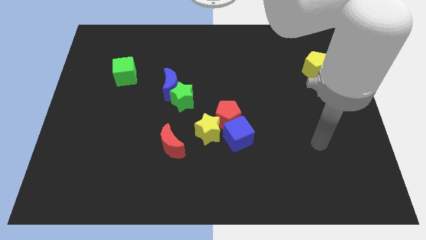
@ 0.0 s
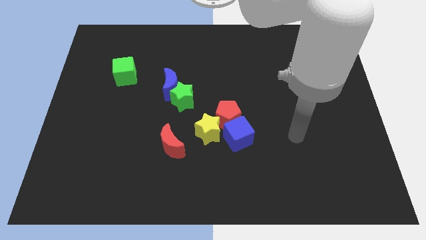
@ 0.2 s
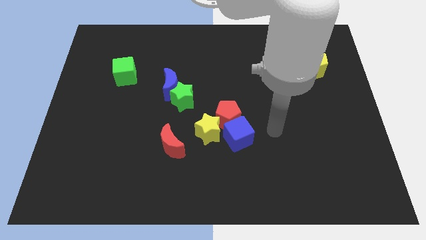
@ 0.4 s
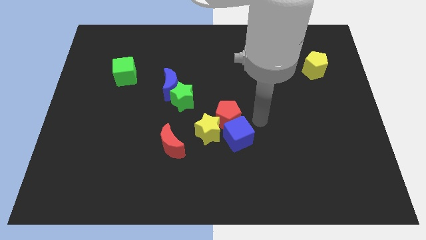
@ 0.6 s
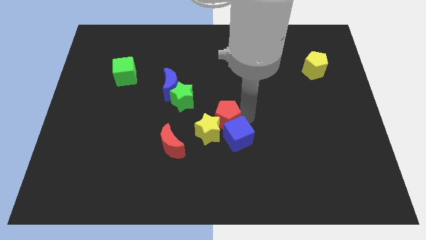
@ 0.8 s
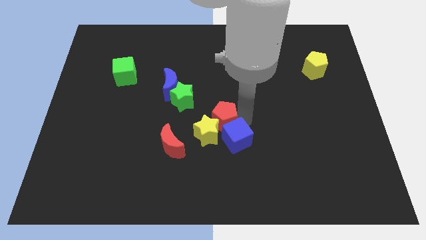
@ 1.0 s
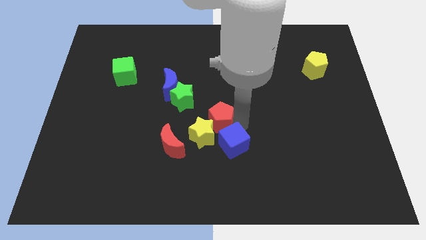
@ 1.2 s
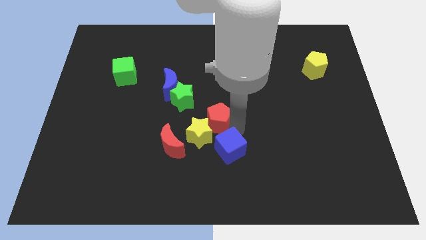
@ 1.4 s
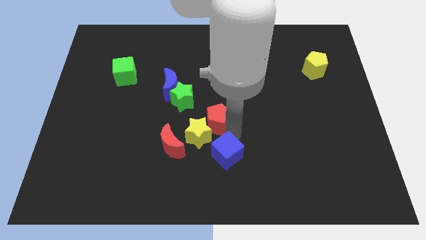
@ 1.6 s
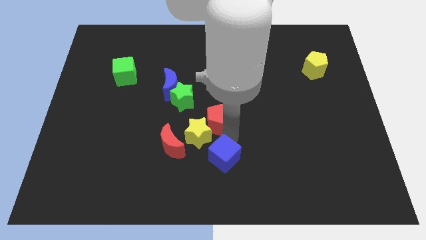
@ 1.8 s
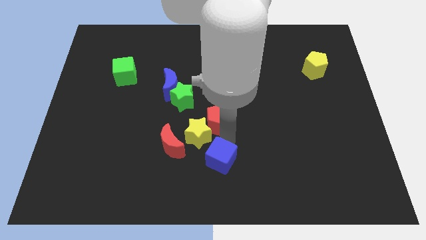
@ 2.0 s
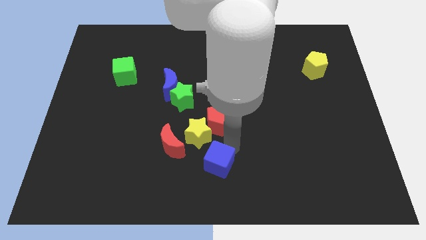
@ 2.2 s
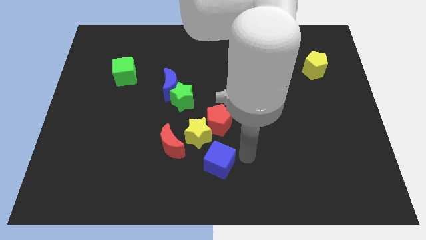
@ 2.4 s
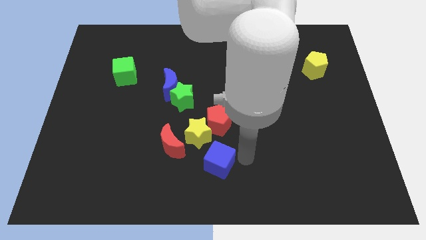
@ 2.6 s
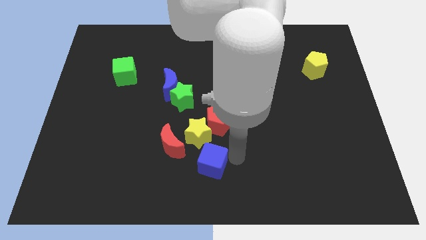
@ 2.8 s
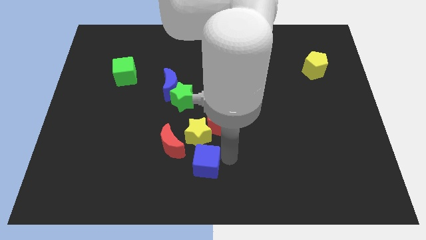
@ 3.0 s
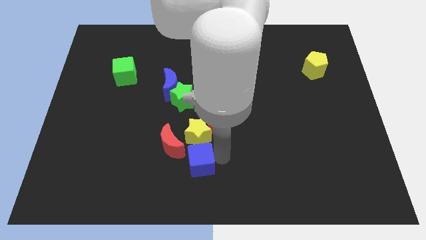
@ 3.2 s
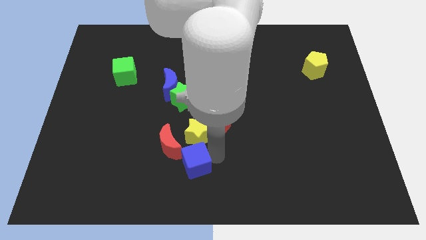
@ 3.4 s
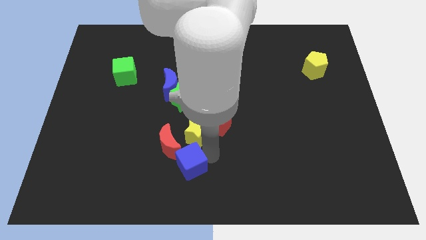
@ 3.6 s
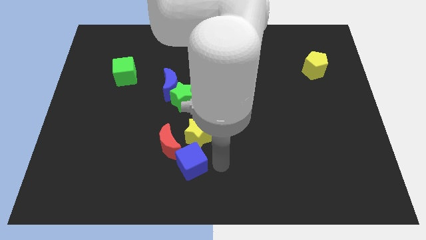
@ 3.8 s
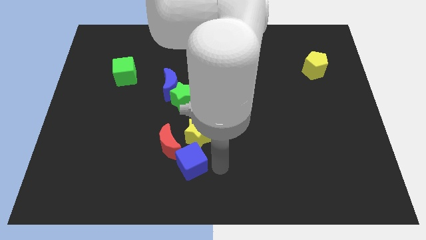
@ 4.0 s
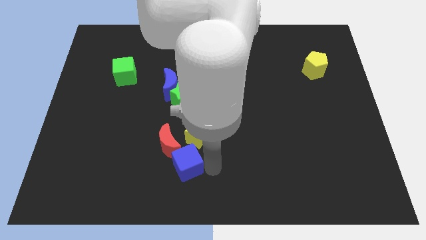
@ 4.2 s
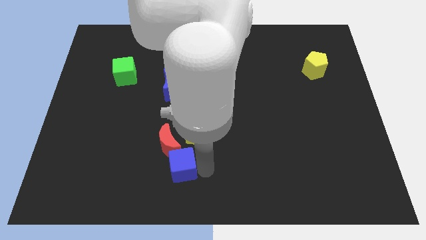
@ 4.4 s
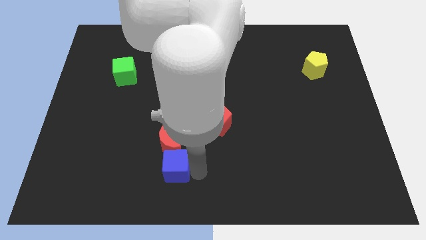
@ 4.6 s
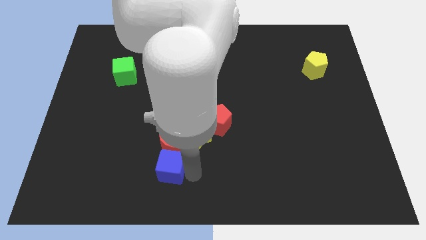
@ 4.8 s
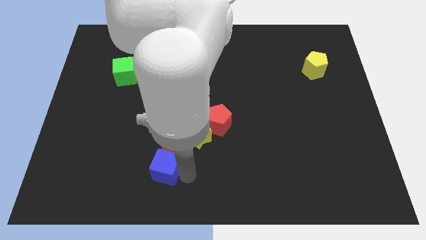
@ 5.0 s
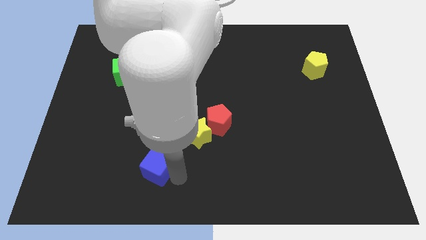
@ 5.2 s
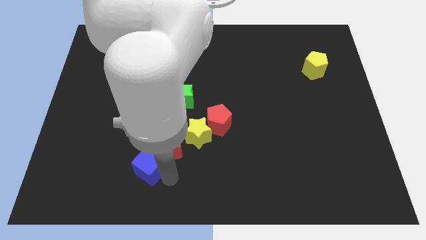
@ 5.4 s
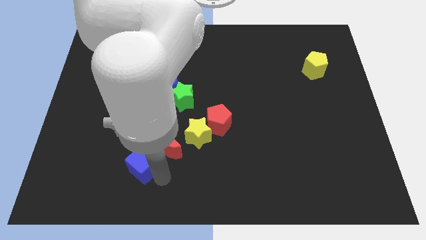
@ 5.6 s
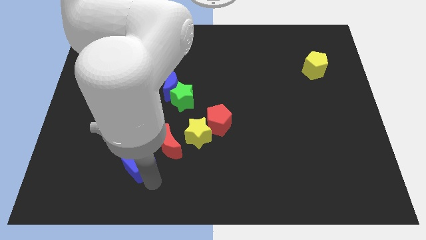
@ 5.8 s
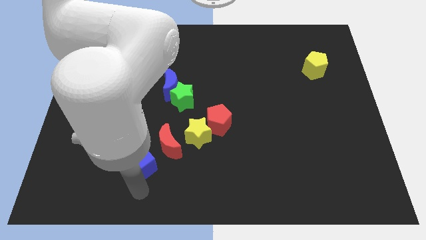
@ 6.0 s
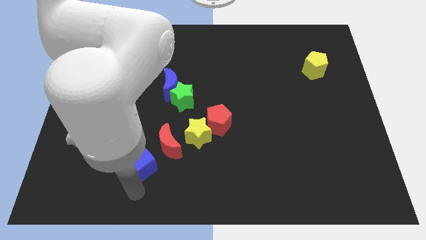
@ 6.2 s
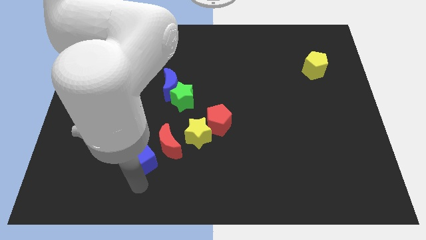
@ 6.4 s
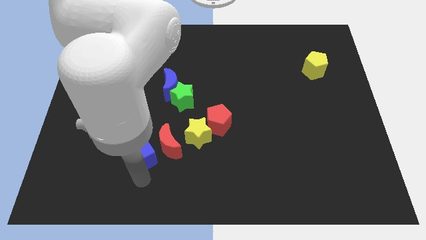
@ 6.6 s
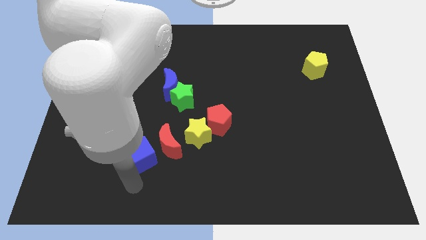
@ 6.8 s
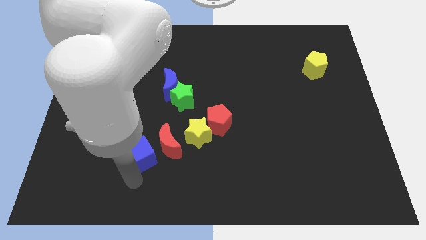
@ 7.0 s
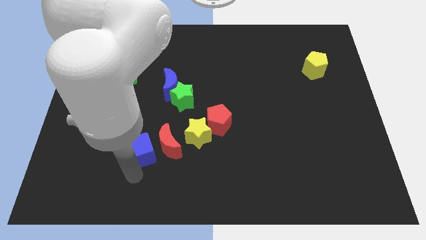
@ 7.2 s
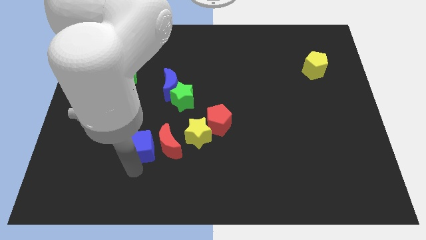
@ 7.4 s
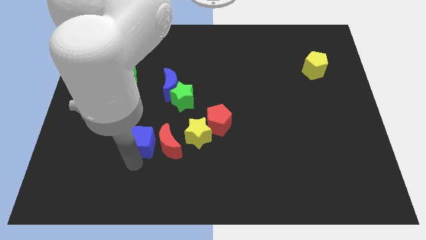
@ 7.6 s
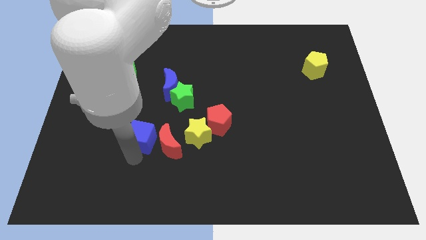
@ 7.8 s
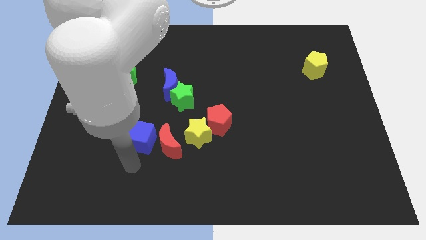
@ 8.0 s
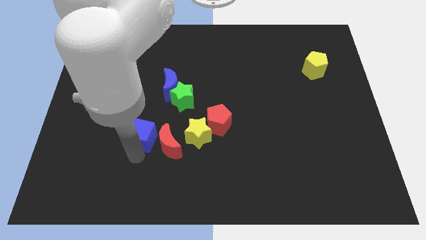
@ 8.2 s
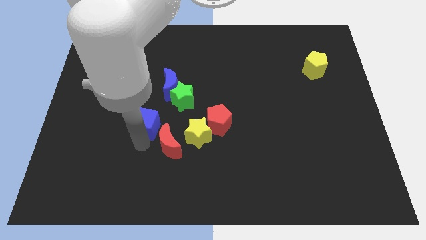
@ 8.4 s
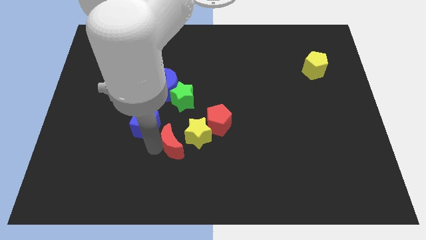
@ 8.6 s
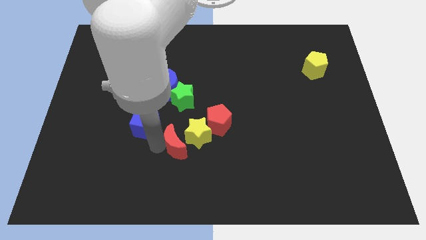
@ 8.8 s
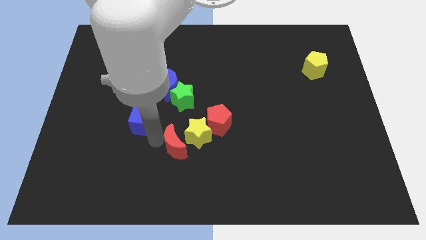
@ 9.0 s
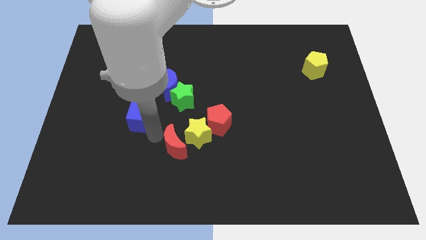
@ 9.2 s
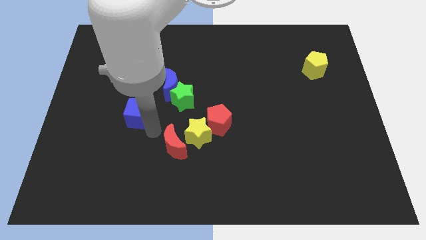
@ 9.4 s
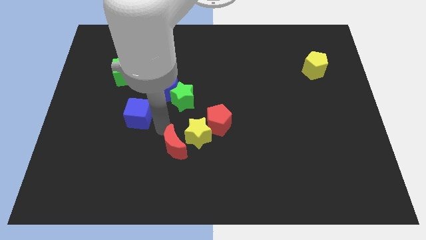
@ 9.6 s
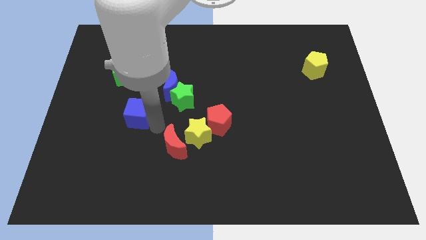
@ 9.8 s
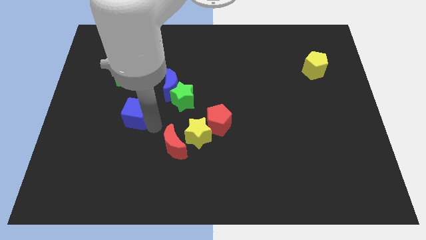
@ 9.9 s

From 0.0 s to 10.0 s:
push the blue cube to the bottom of the green cube

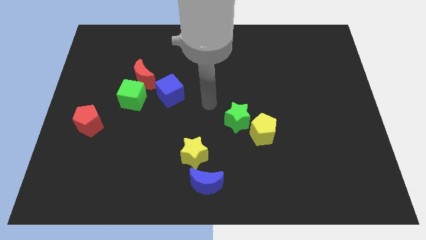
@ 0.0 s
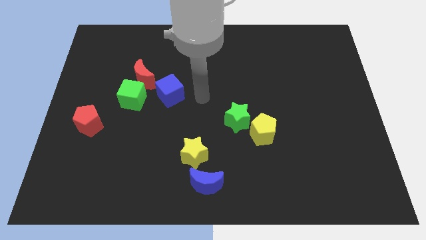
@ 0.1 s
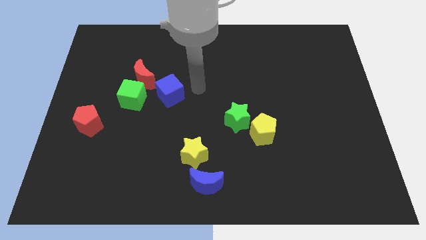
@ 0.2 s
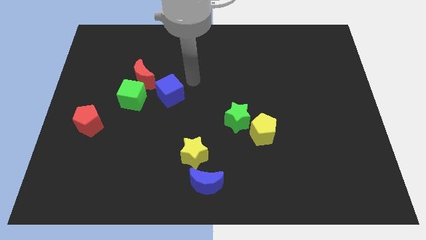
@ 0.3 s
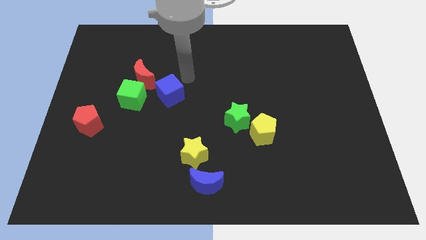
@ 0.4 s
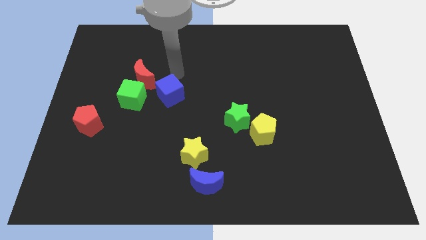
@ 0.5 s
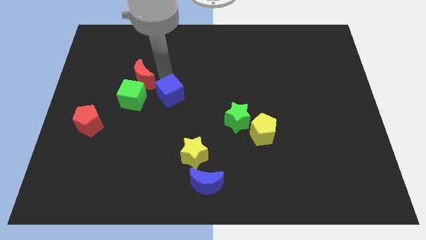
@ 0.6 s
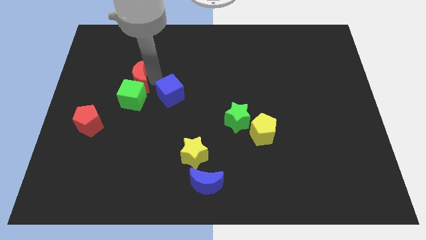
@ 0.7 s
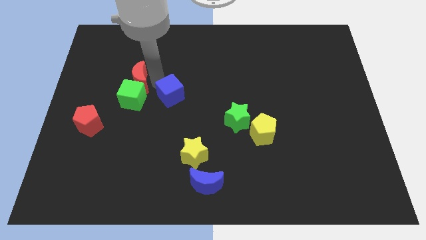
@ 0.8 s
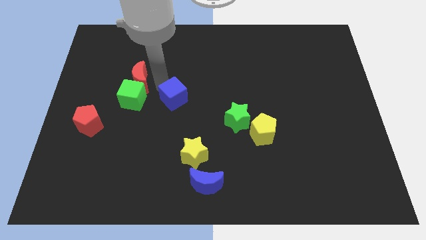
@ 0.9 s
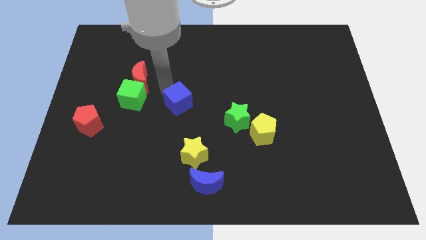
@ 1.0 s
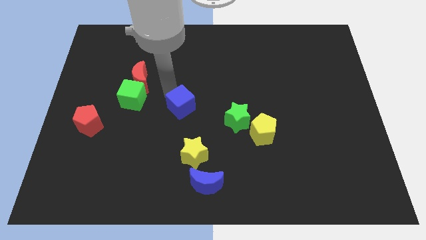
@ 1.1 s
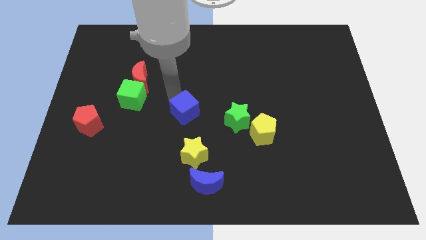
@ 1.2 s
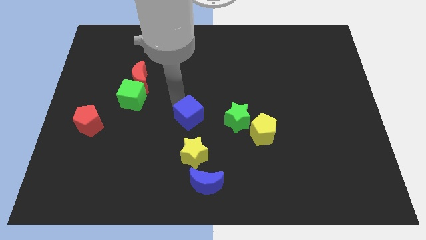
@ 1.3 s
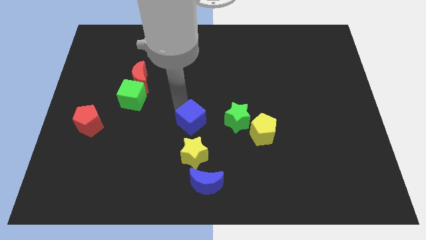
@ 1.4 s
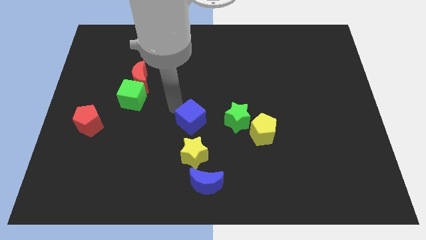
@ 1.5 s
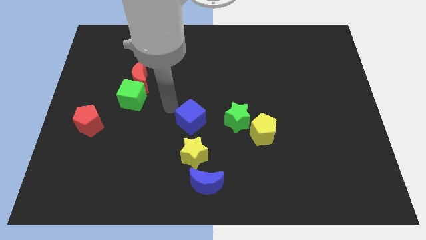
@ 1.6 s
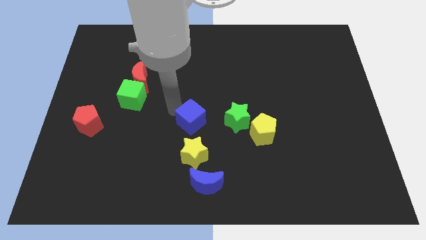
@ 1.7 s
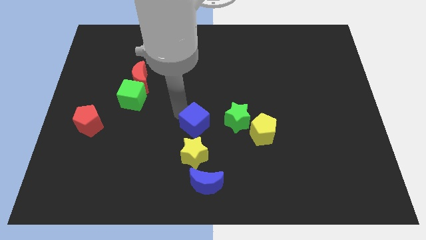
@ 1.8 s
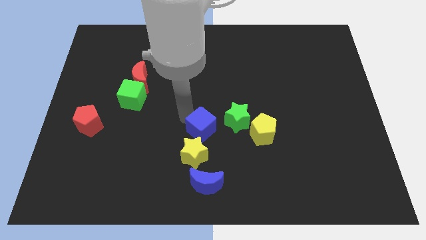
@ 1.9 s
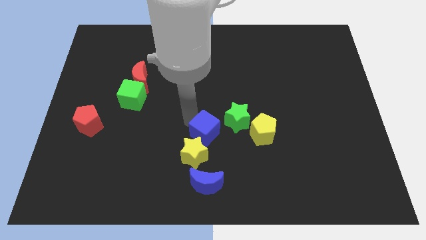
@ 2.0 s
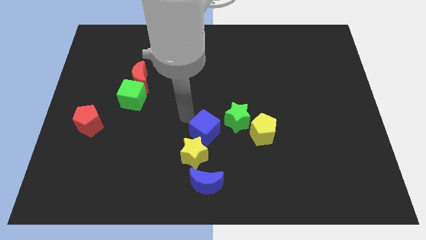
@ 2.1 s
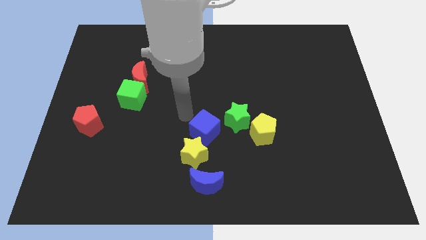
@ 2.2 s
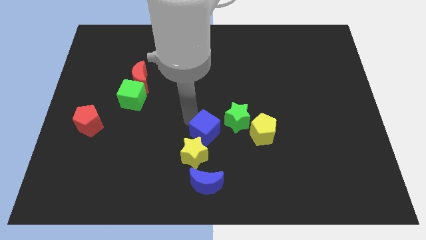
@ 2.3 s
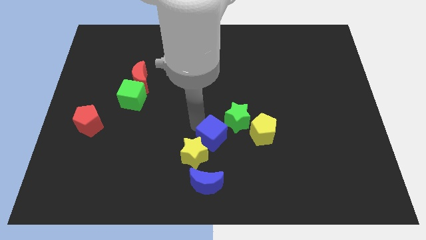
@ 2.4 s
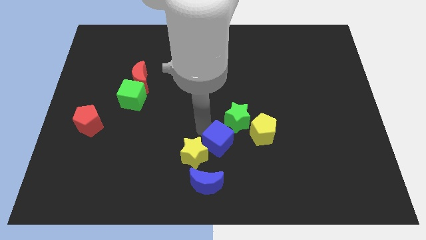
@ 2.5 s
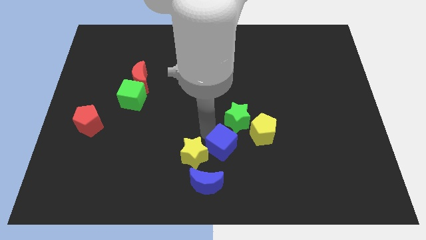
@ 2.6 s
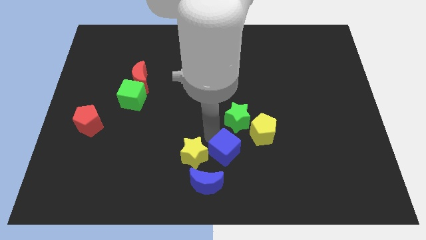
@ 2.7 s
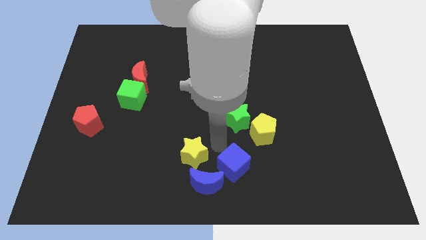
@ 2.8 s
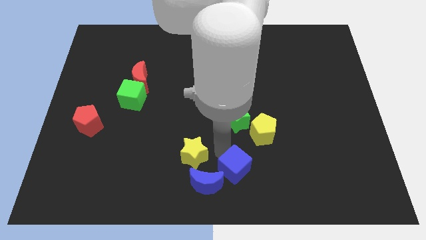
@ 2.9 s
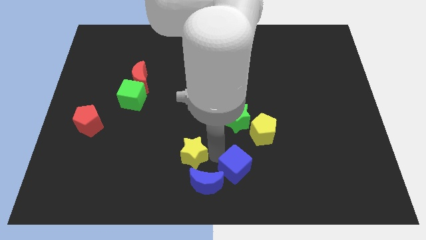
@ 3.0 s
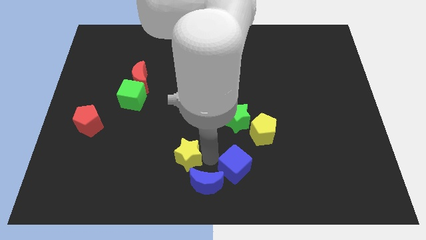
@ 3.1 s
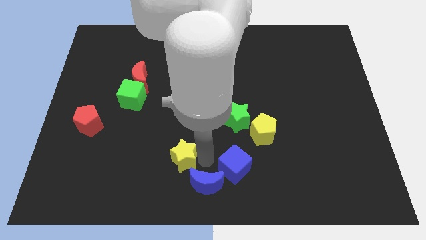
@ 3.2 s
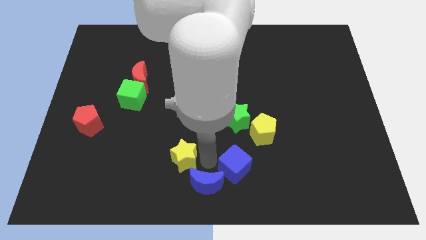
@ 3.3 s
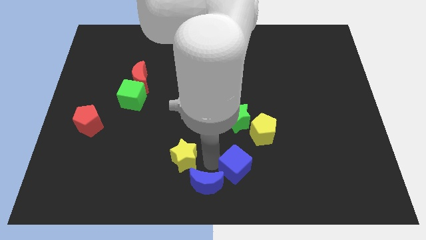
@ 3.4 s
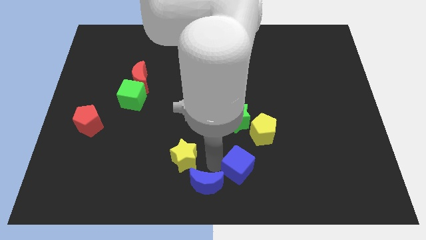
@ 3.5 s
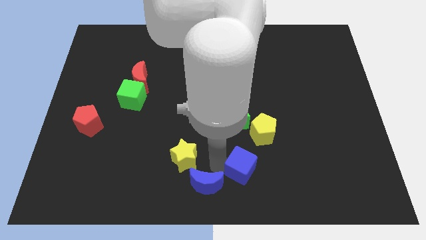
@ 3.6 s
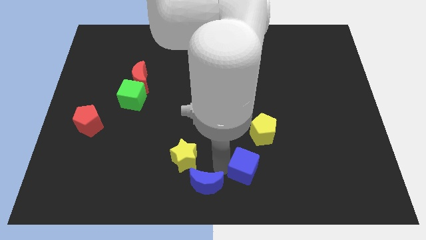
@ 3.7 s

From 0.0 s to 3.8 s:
push the blue cube to the bottom of the yellow pentagon
